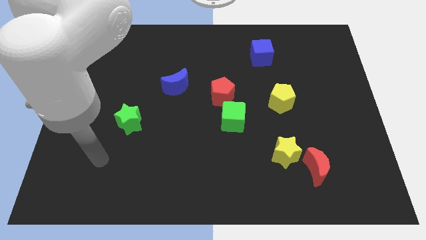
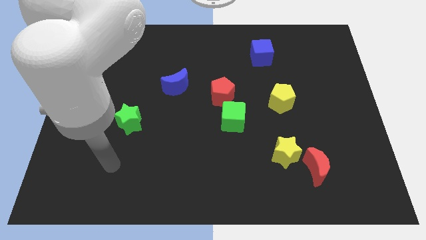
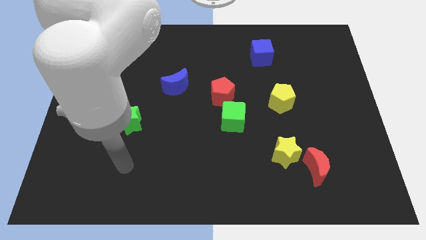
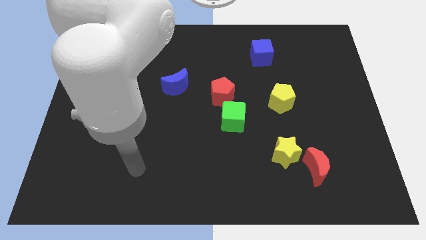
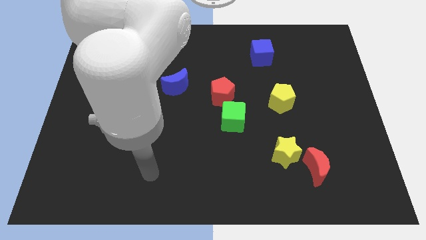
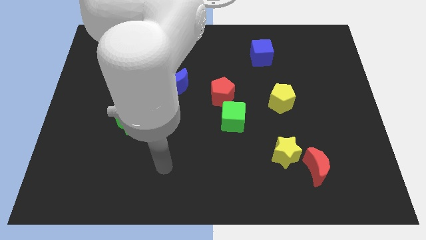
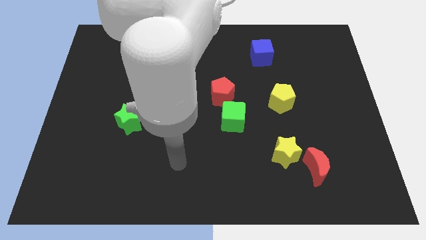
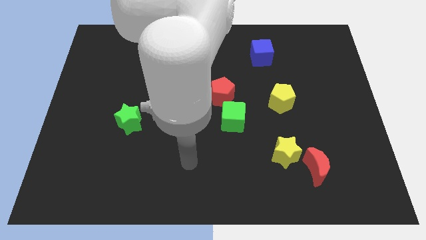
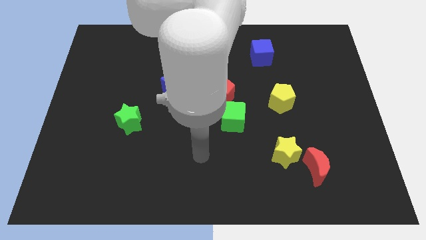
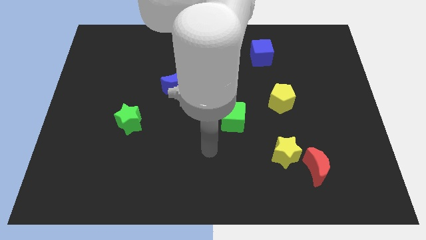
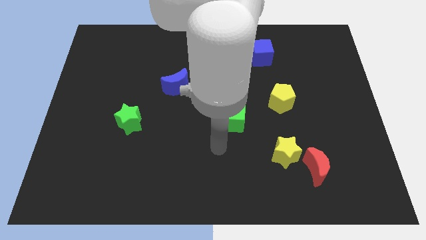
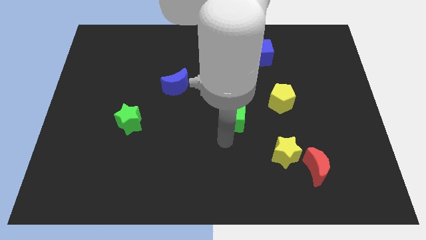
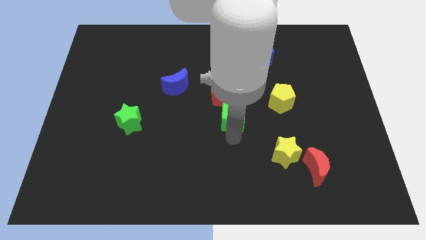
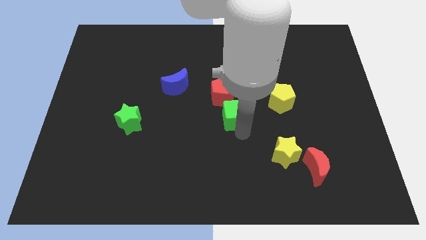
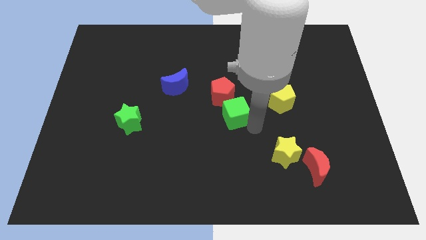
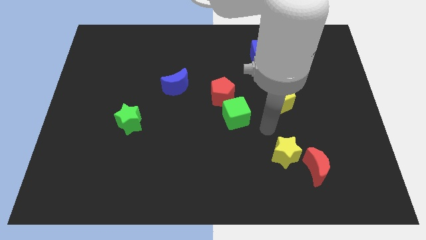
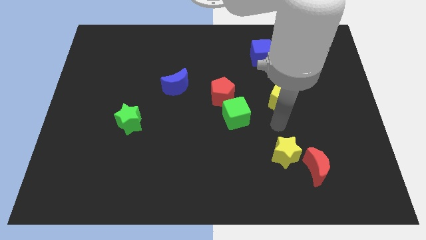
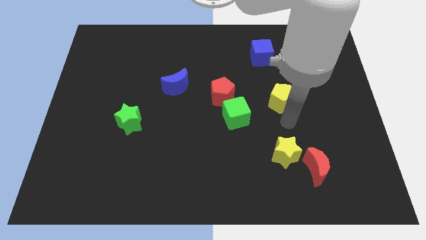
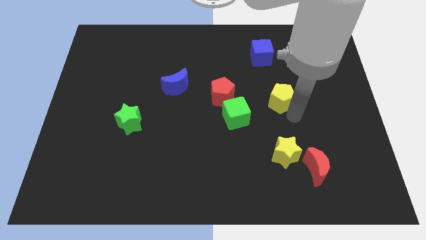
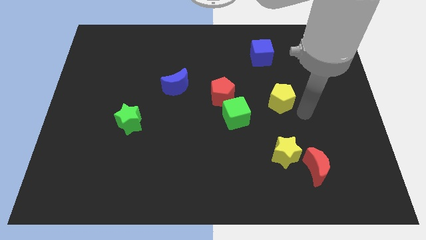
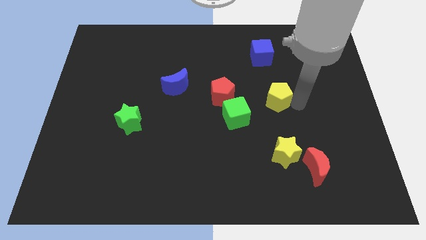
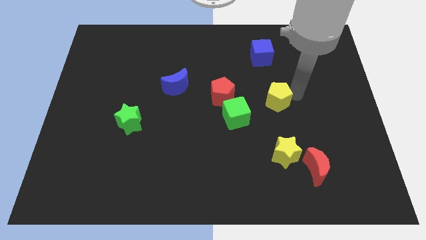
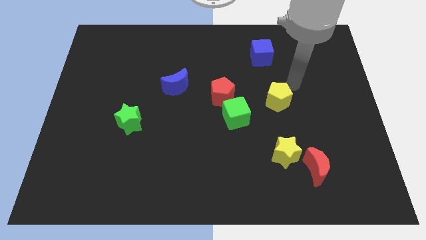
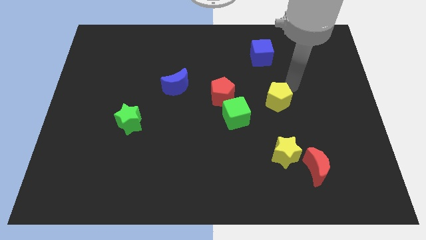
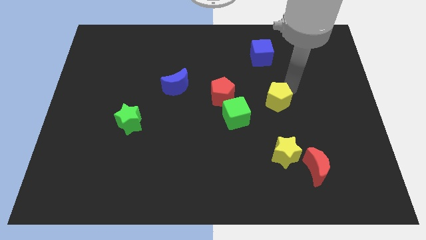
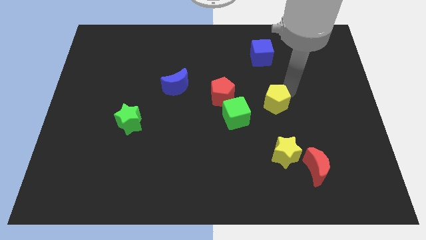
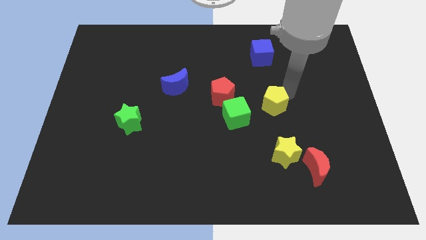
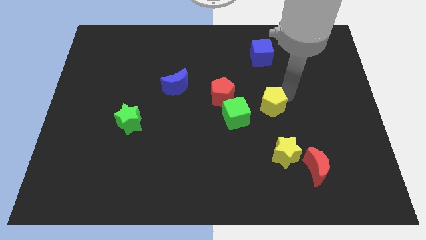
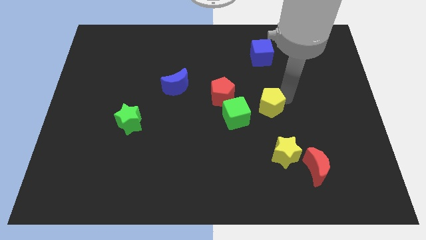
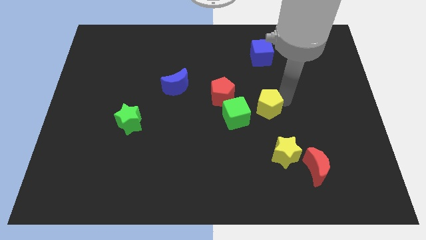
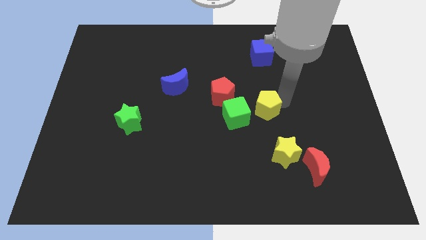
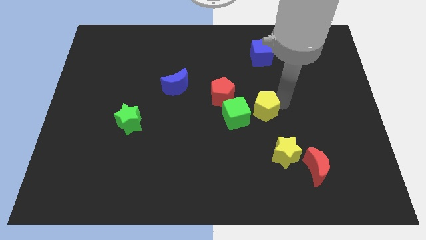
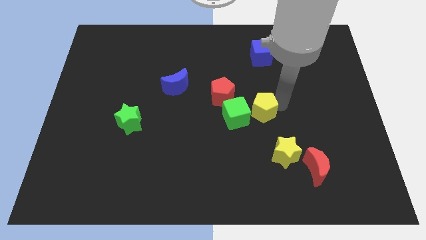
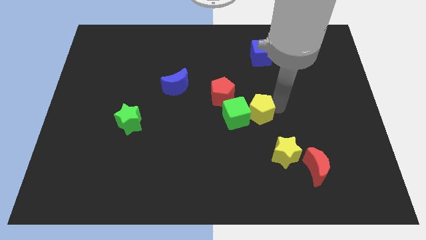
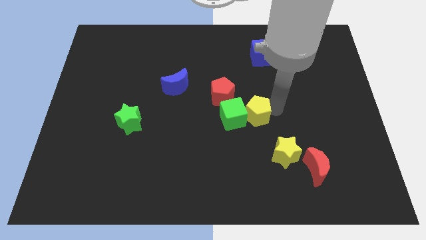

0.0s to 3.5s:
move the yellow pentagon diagonally down and left slightly

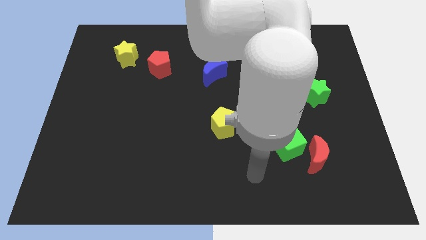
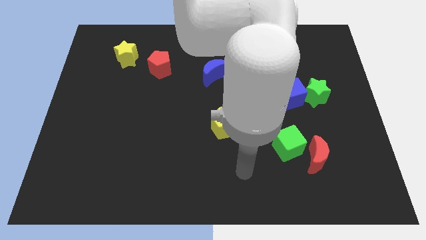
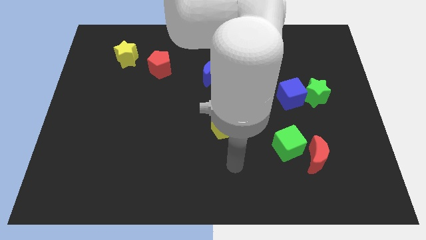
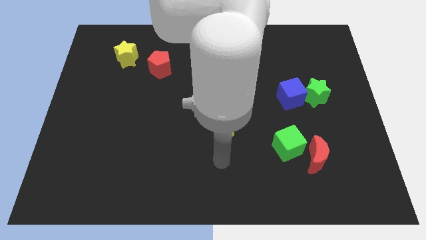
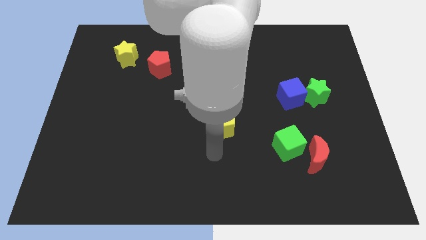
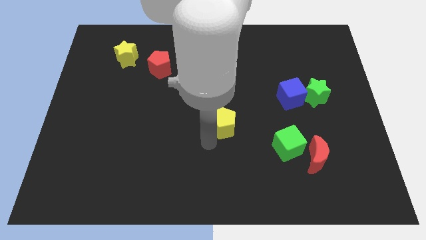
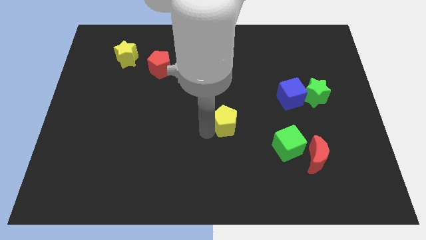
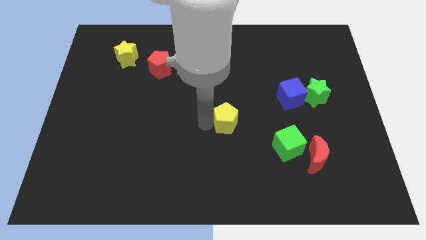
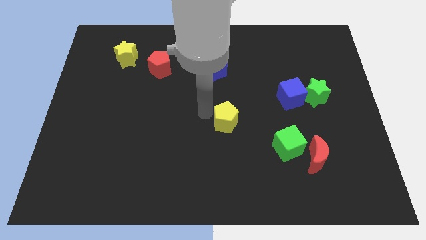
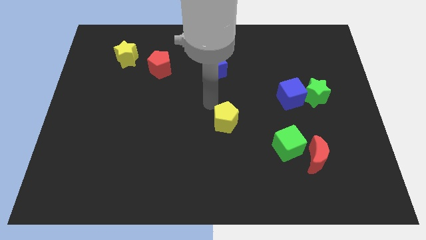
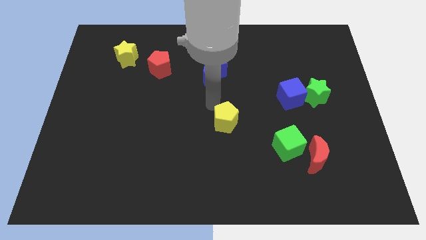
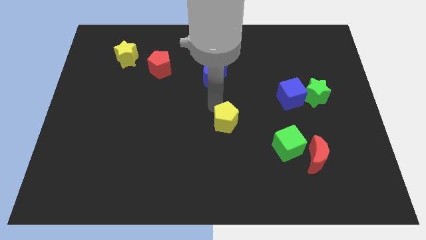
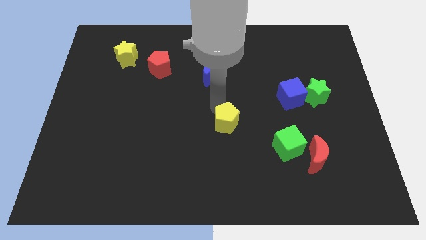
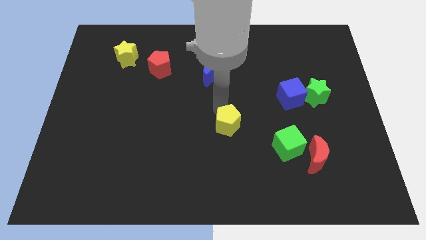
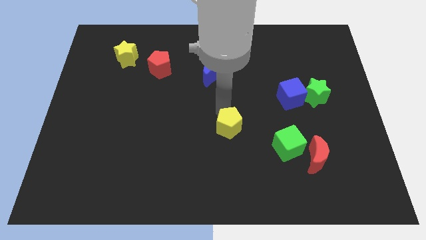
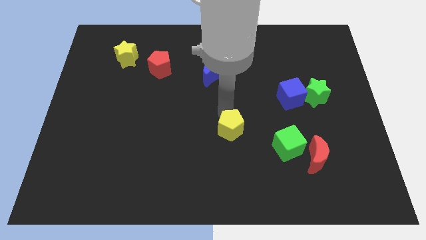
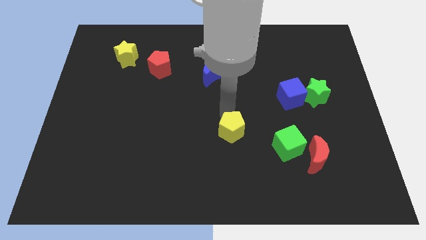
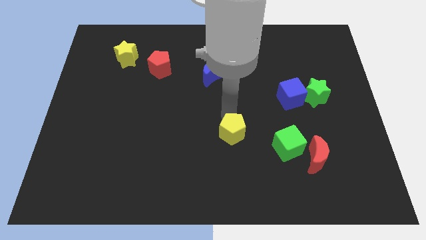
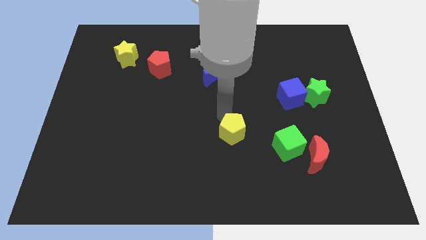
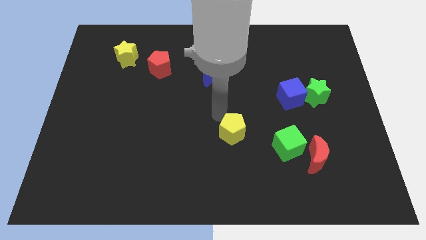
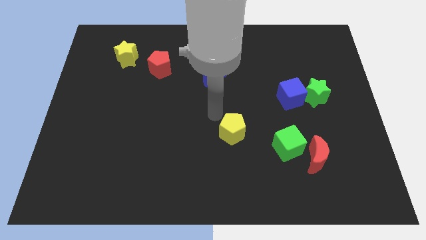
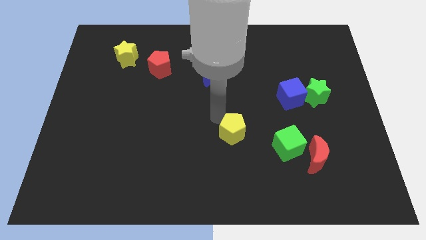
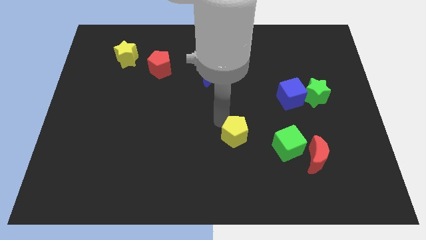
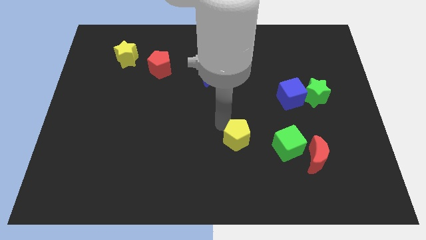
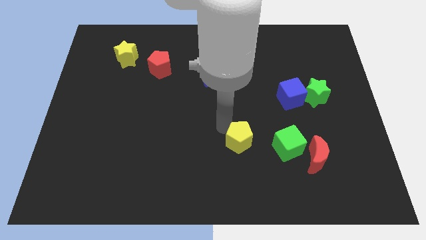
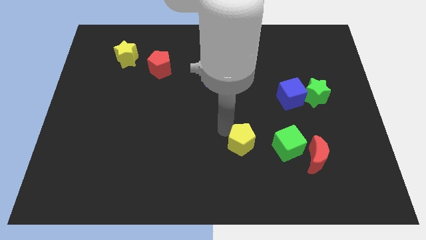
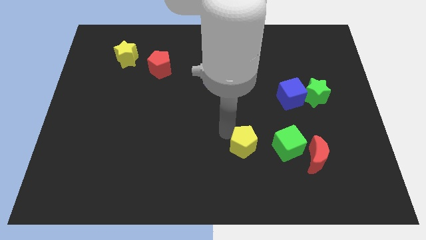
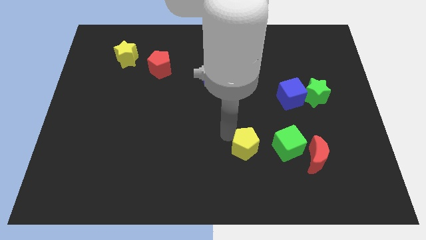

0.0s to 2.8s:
slightly slide the yellow pentagon down and right diagonally

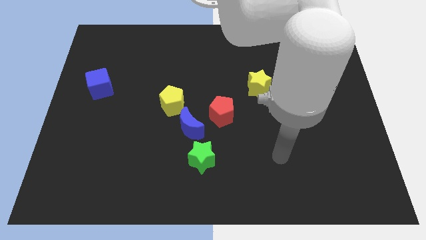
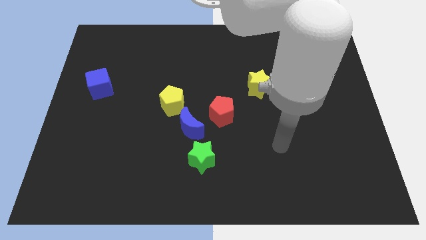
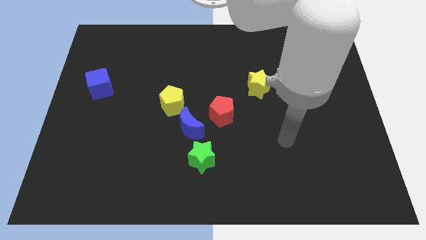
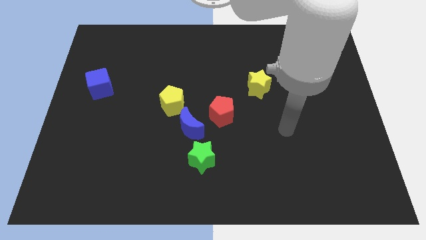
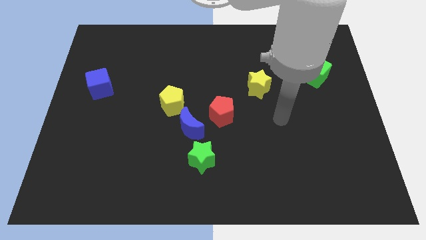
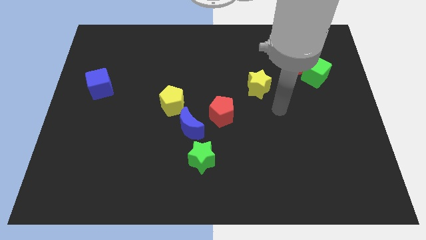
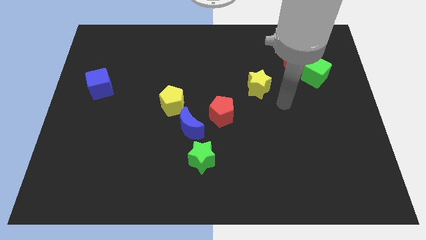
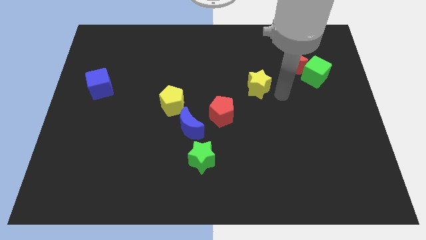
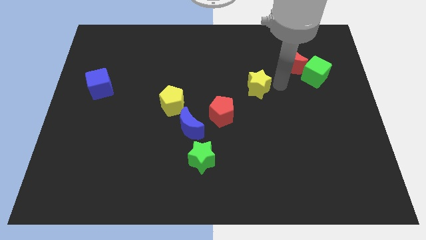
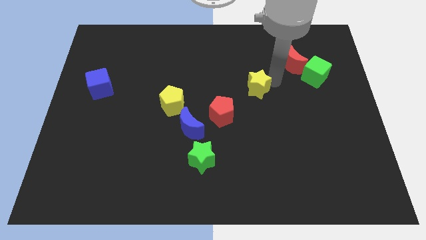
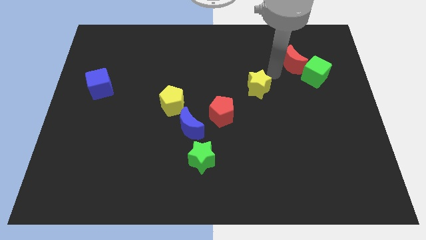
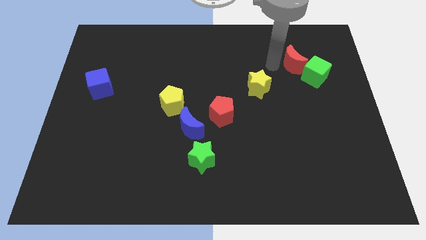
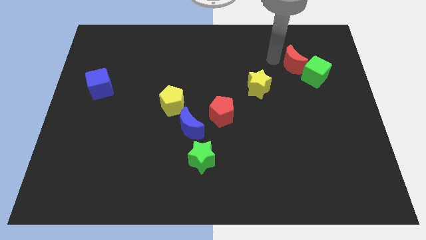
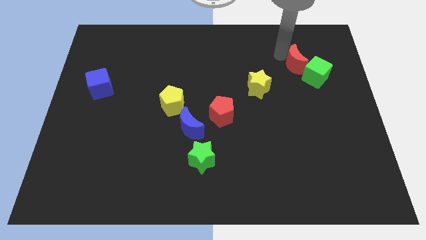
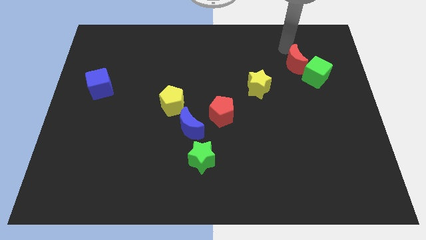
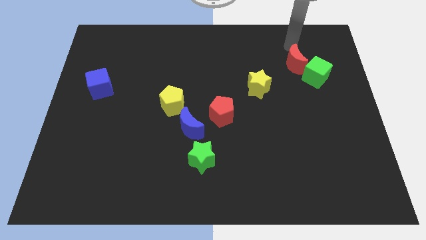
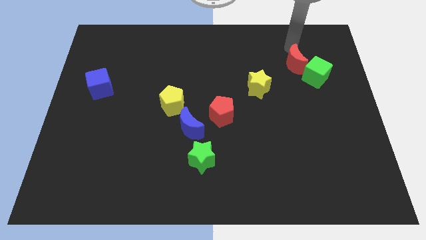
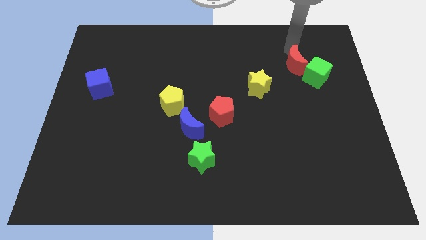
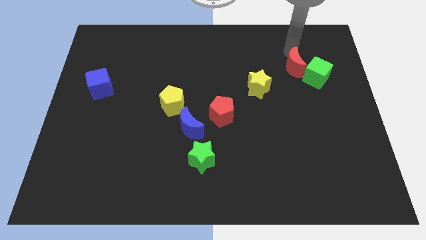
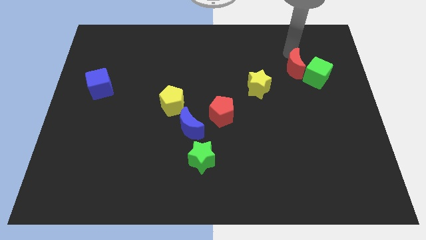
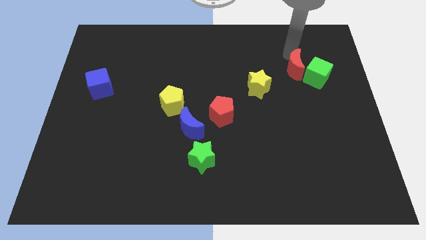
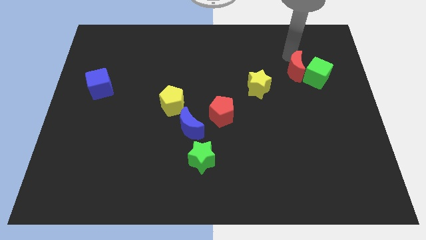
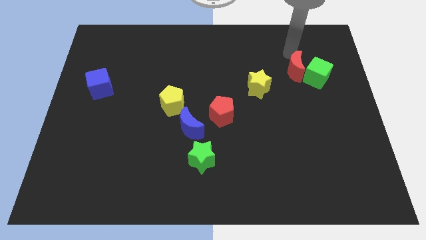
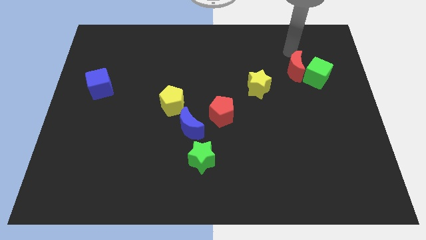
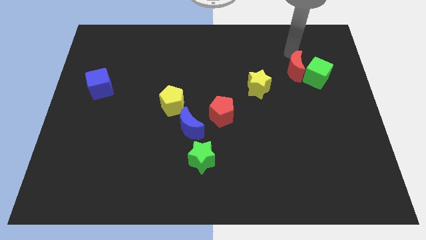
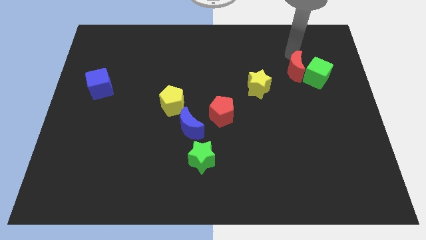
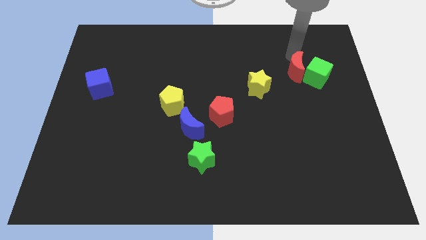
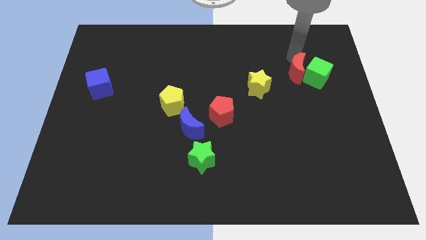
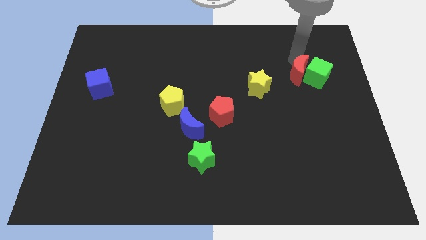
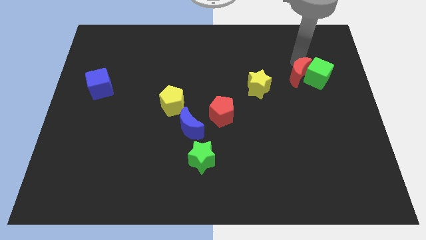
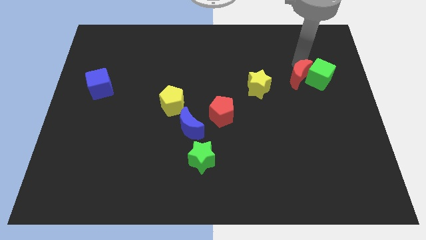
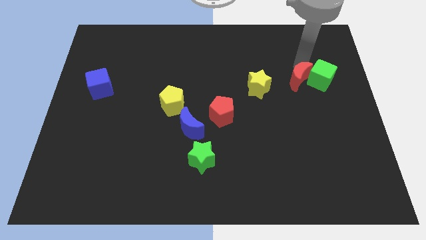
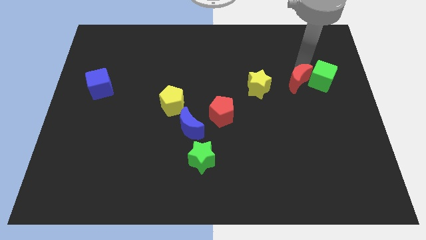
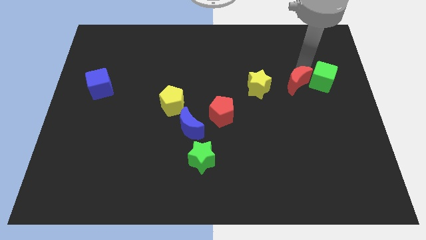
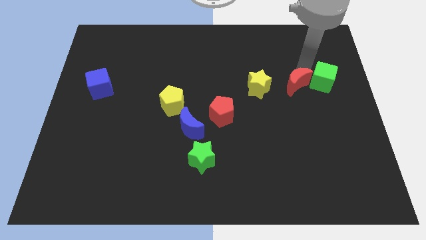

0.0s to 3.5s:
slightly move the red moon downwards
